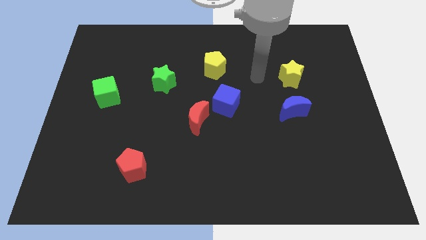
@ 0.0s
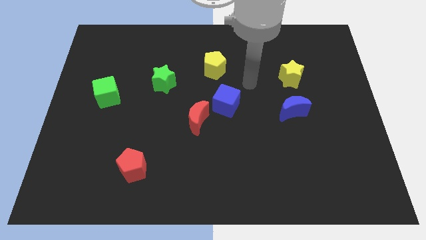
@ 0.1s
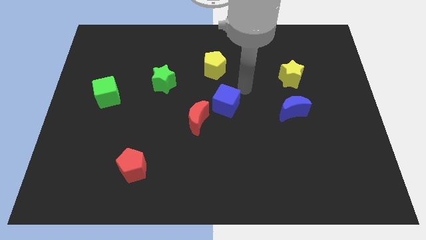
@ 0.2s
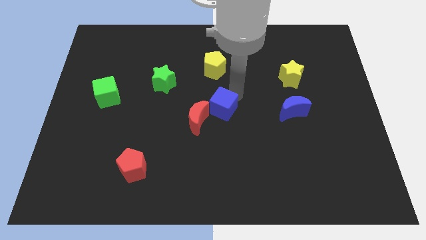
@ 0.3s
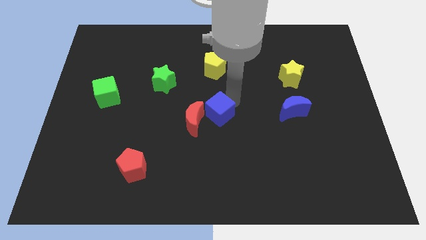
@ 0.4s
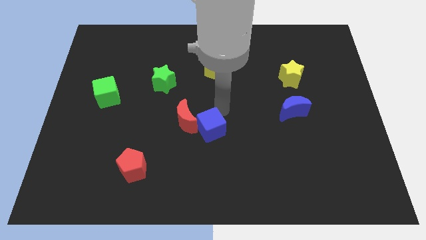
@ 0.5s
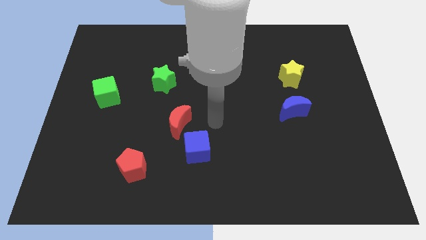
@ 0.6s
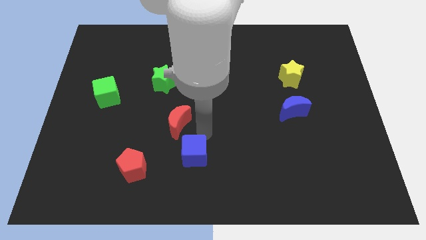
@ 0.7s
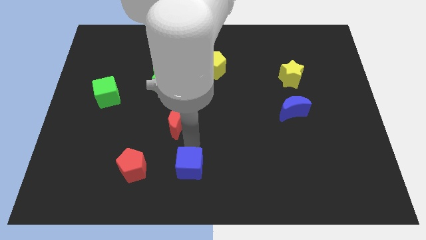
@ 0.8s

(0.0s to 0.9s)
pull the red moon apart from the blue cube

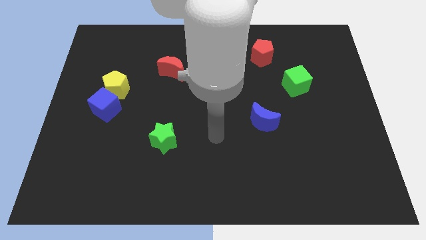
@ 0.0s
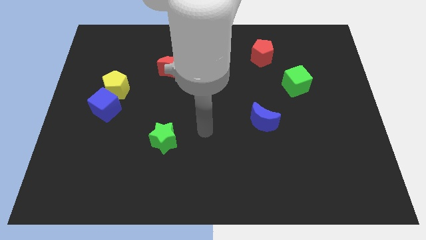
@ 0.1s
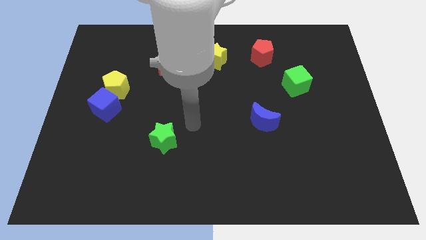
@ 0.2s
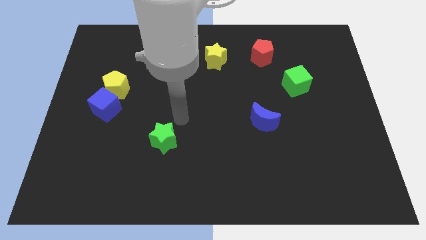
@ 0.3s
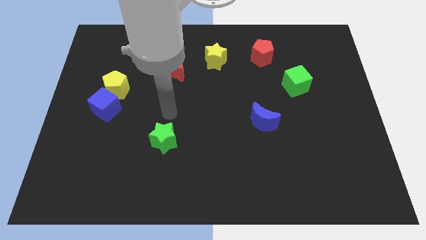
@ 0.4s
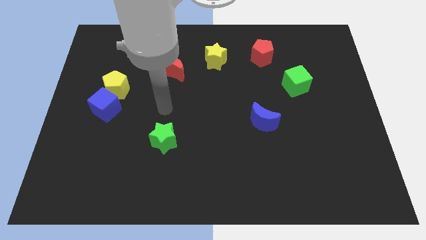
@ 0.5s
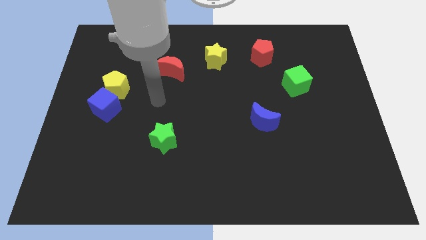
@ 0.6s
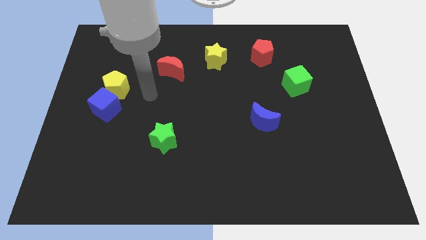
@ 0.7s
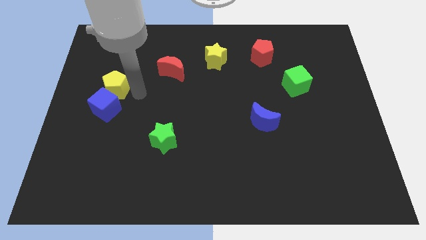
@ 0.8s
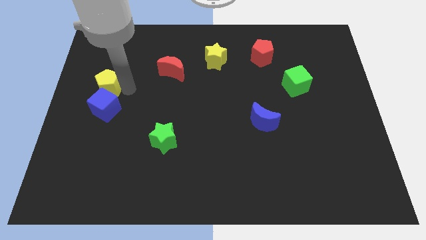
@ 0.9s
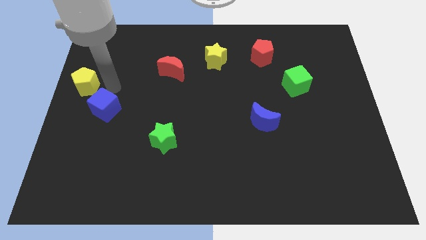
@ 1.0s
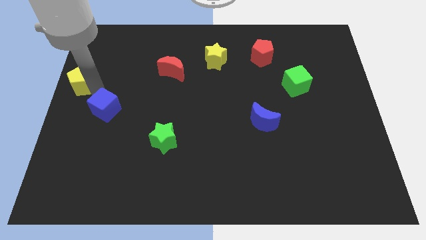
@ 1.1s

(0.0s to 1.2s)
pull the blue cube apart from the yellow pentagon

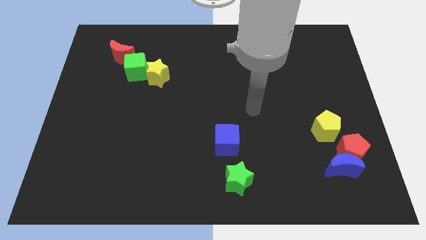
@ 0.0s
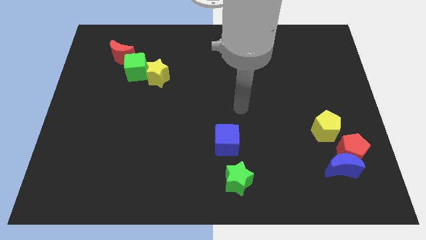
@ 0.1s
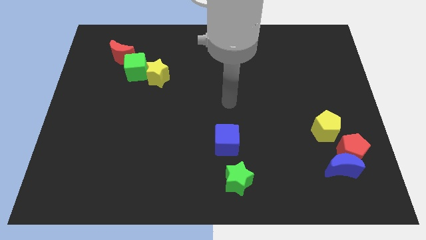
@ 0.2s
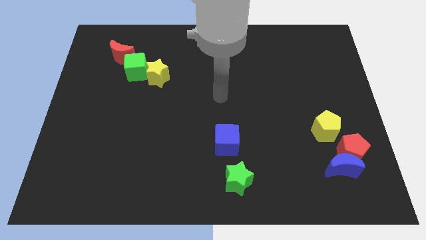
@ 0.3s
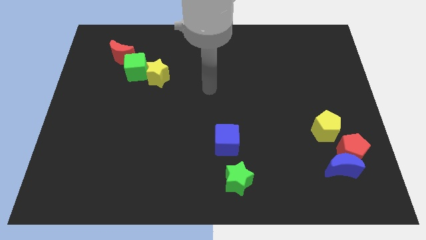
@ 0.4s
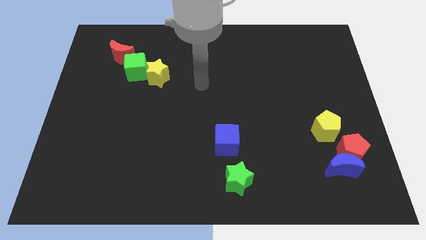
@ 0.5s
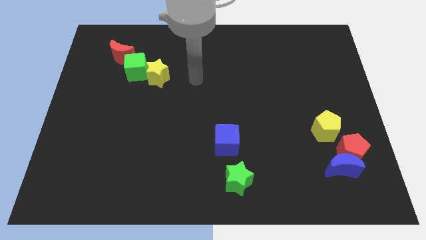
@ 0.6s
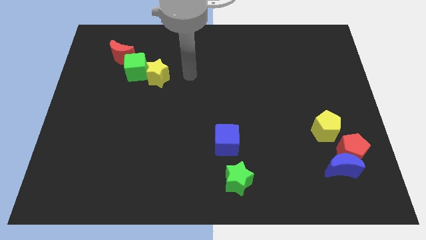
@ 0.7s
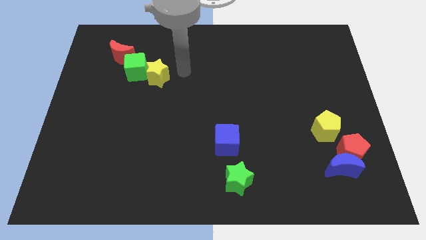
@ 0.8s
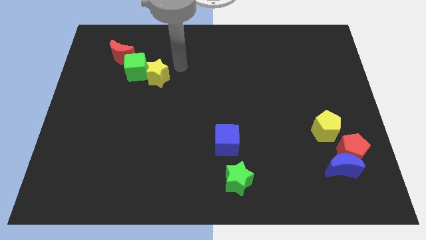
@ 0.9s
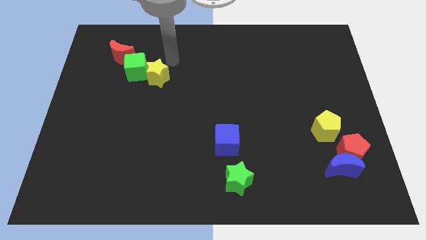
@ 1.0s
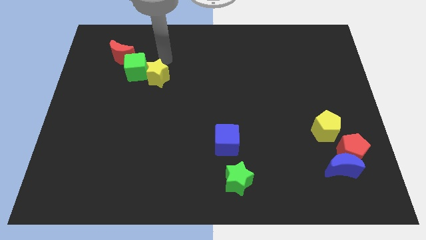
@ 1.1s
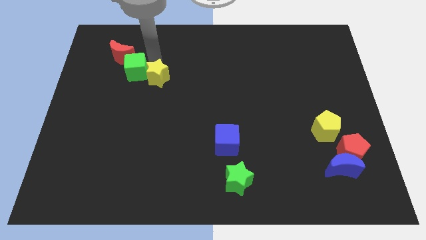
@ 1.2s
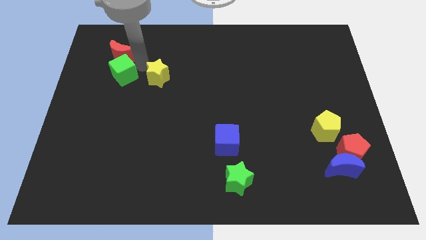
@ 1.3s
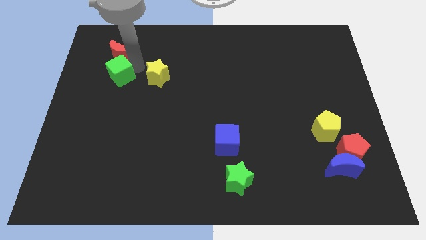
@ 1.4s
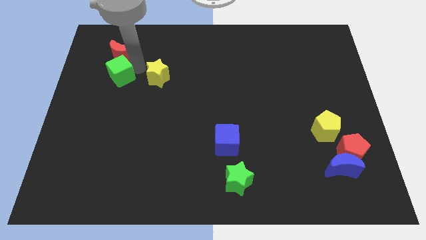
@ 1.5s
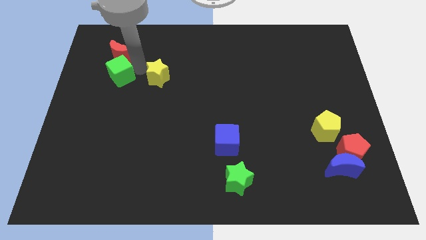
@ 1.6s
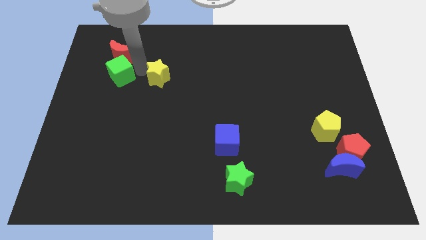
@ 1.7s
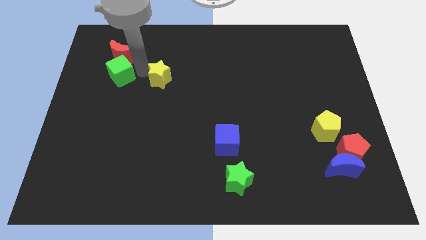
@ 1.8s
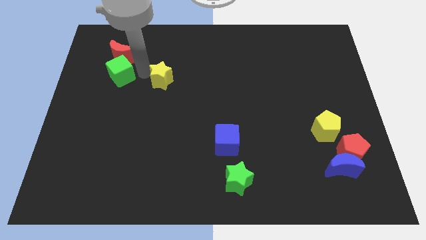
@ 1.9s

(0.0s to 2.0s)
move the yellow star away from the green cube

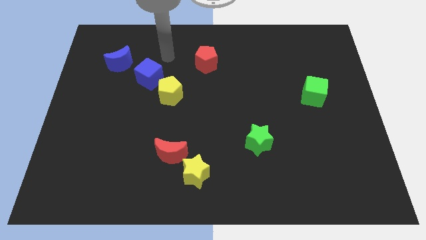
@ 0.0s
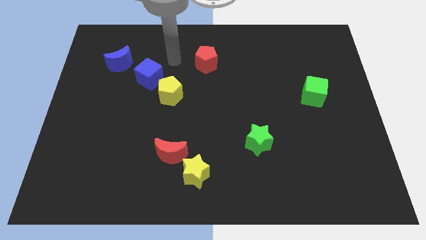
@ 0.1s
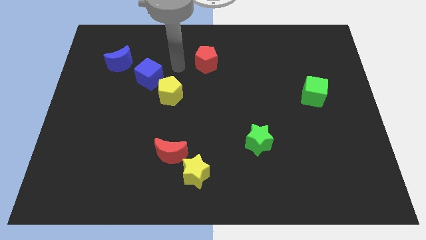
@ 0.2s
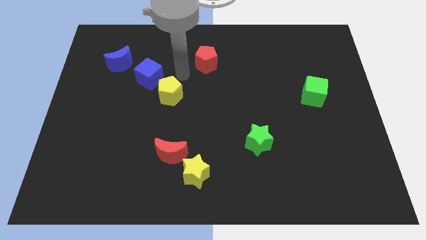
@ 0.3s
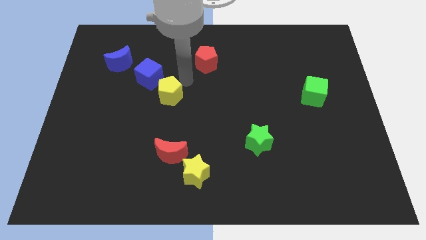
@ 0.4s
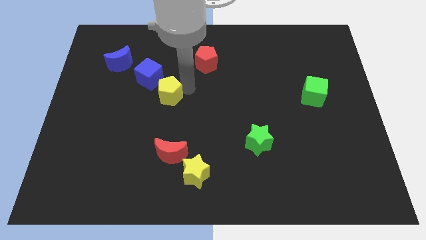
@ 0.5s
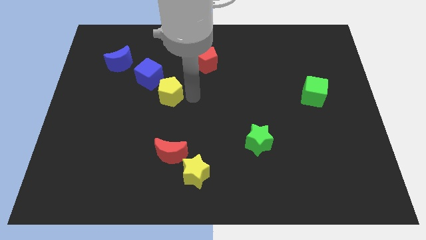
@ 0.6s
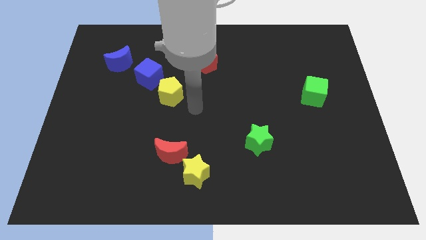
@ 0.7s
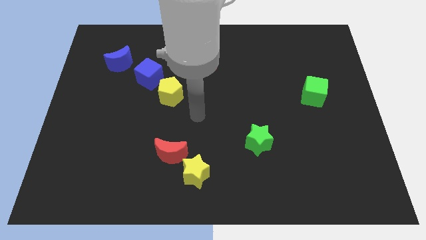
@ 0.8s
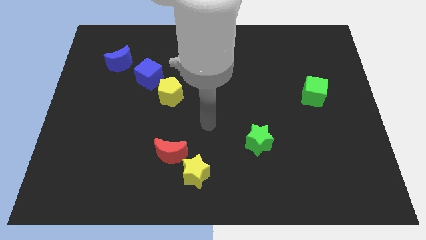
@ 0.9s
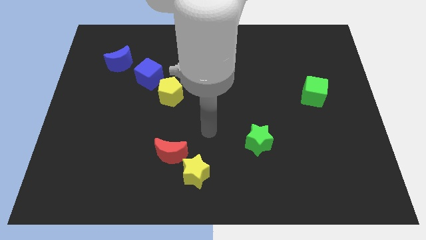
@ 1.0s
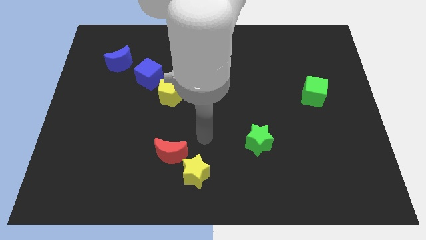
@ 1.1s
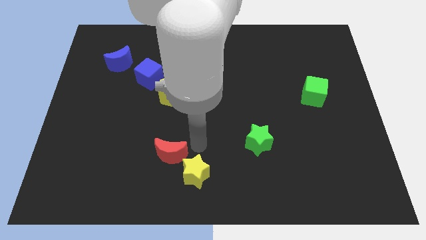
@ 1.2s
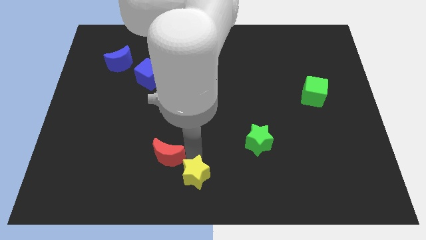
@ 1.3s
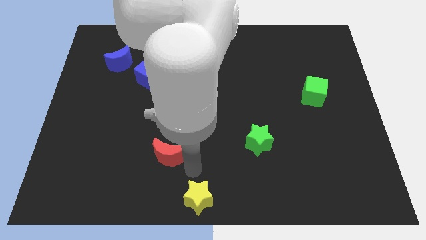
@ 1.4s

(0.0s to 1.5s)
pull the red moon apart from the yellow star

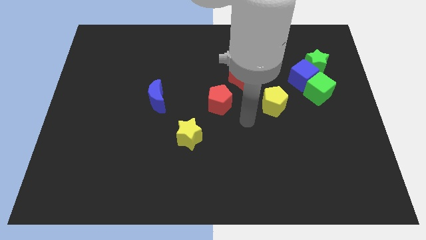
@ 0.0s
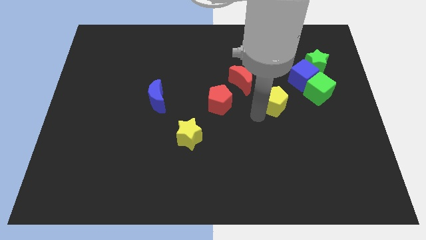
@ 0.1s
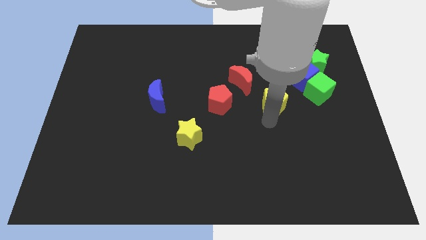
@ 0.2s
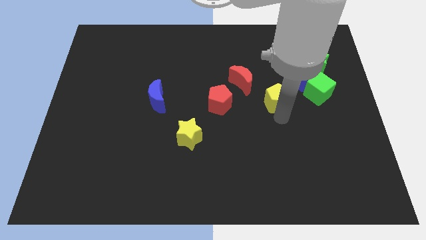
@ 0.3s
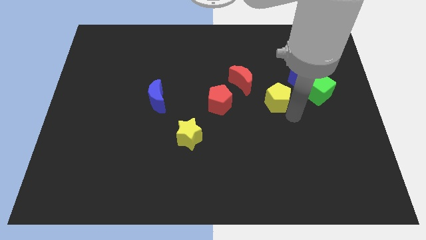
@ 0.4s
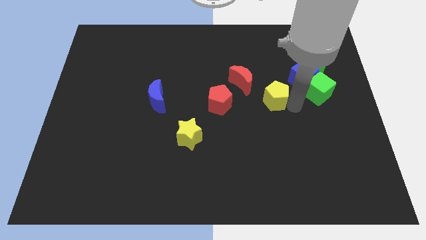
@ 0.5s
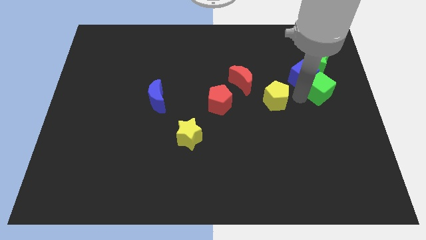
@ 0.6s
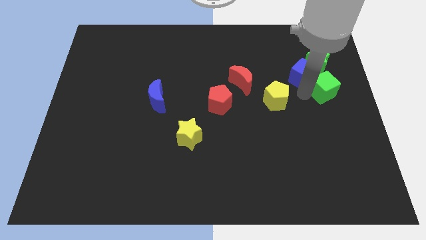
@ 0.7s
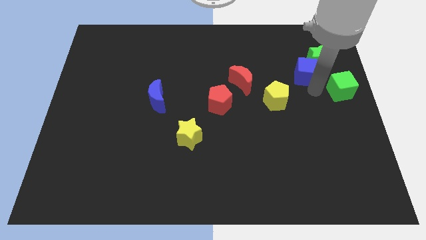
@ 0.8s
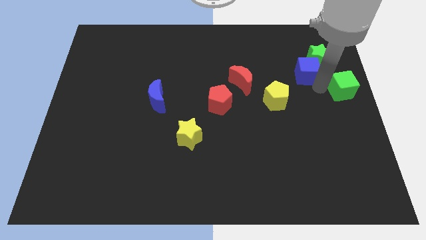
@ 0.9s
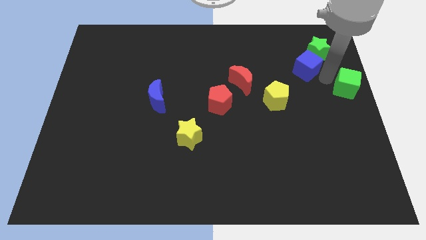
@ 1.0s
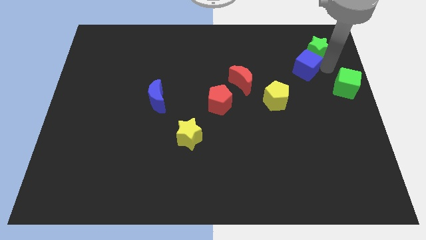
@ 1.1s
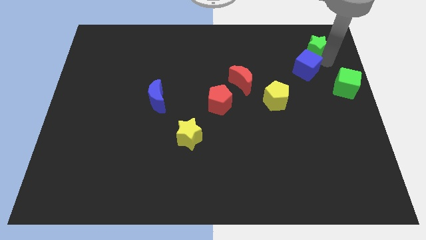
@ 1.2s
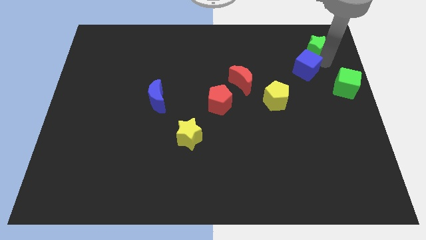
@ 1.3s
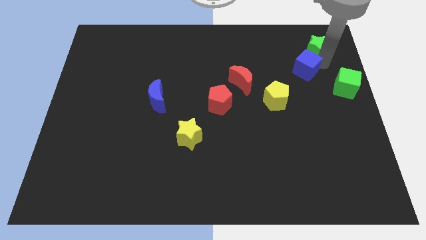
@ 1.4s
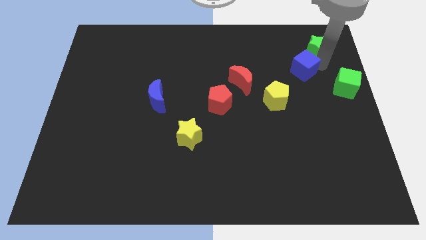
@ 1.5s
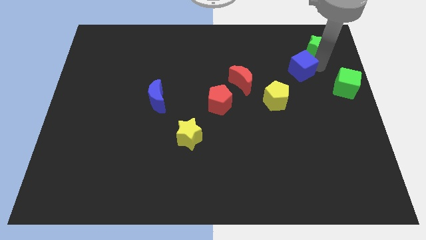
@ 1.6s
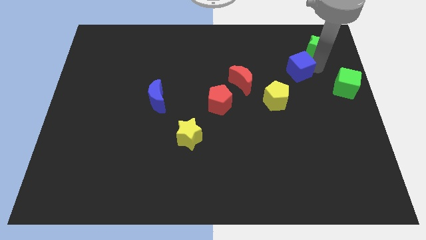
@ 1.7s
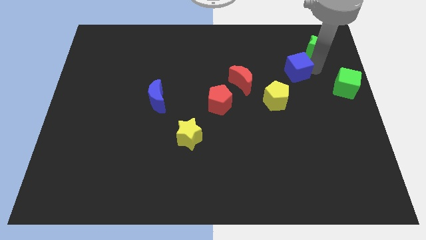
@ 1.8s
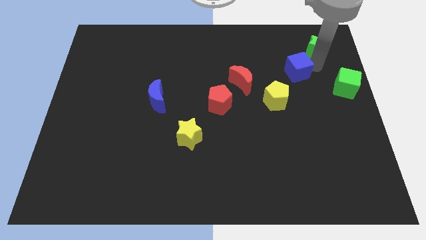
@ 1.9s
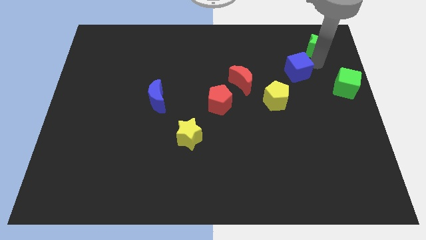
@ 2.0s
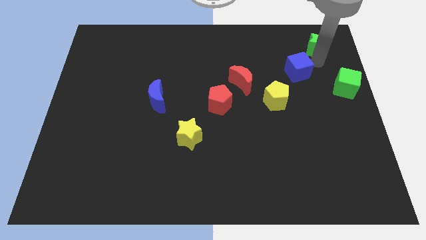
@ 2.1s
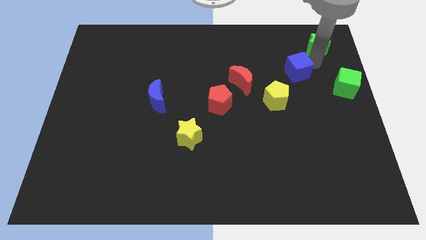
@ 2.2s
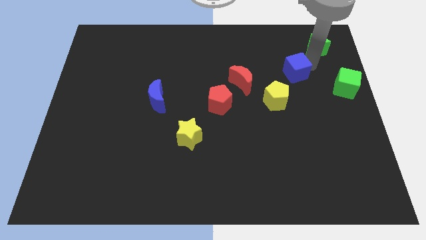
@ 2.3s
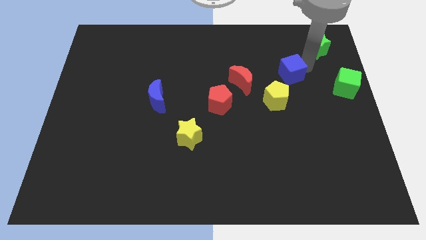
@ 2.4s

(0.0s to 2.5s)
pull the blue cube apart from the green cube and green star

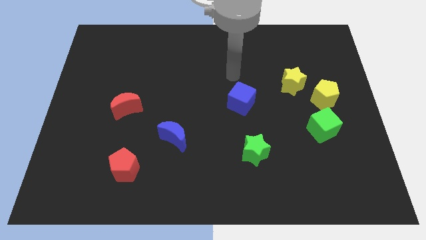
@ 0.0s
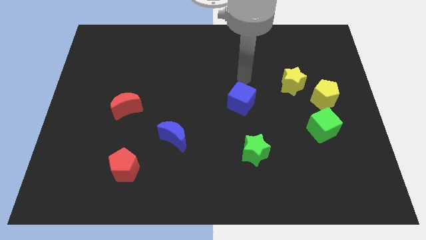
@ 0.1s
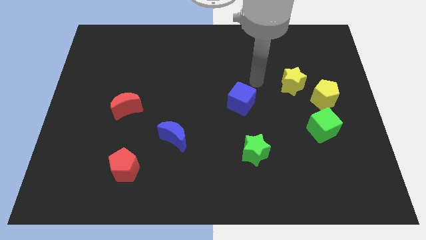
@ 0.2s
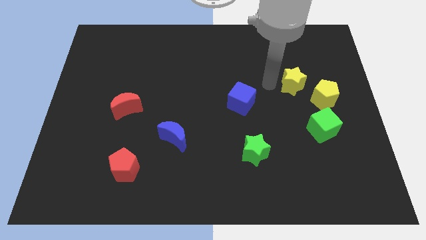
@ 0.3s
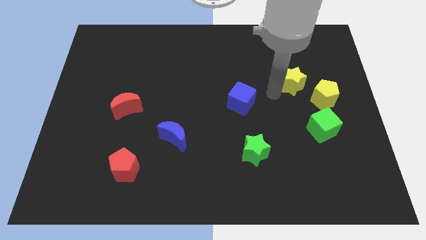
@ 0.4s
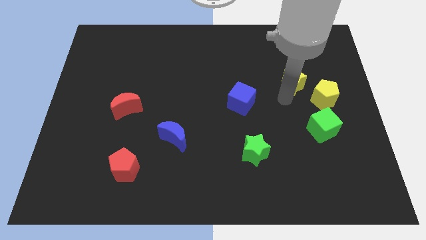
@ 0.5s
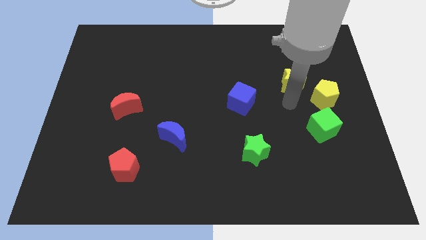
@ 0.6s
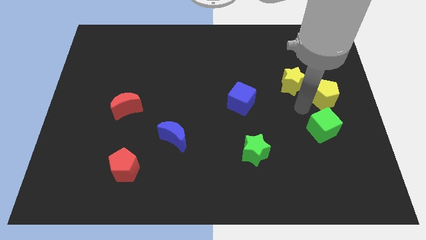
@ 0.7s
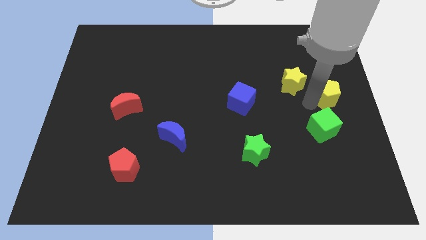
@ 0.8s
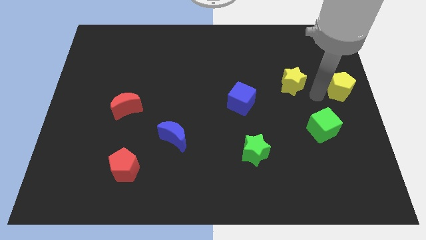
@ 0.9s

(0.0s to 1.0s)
separate the yellow star from the yellow pentagon
